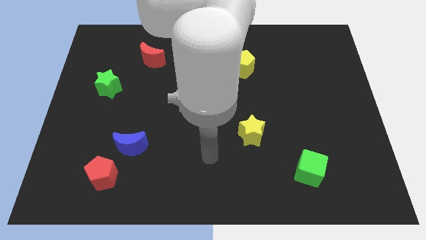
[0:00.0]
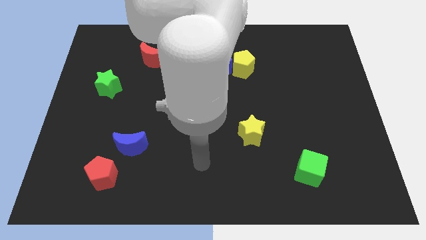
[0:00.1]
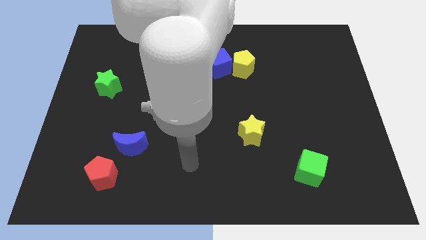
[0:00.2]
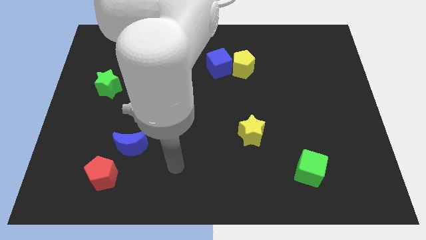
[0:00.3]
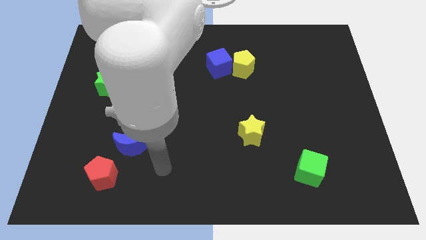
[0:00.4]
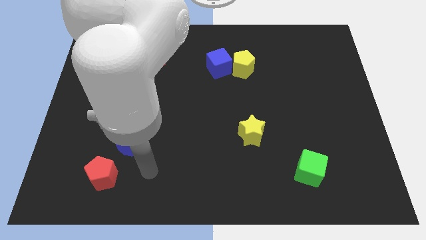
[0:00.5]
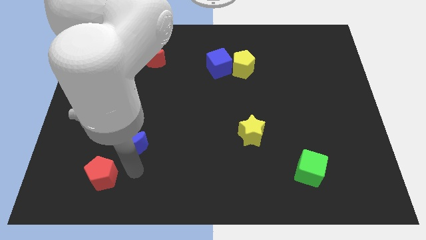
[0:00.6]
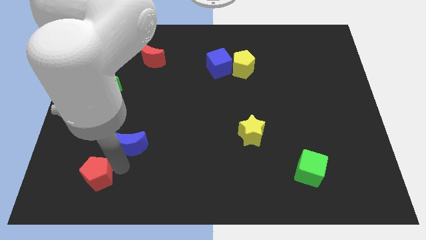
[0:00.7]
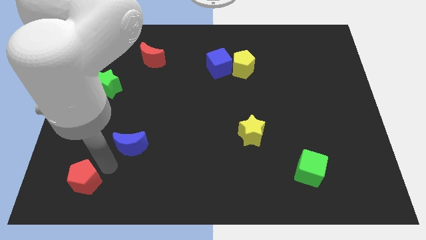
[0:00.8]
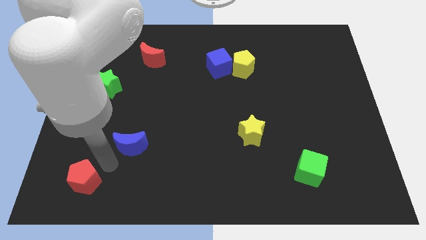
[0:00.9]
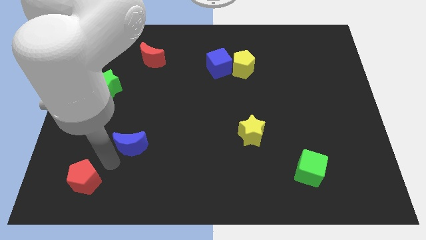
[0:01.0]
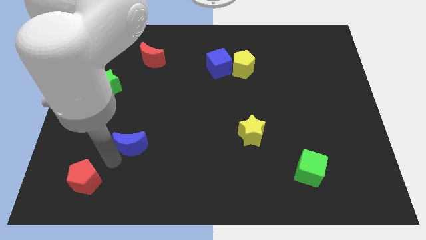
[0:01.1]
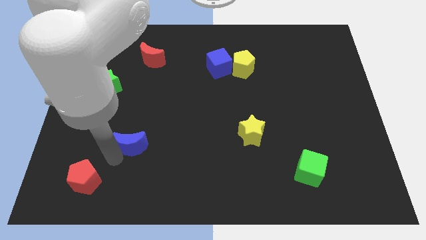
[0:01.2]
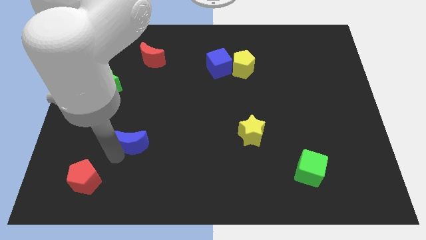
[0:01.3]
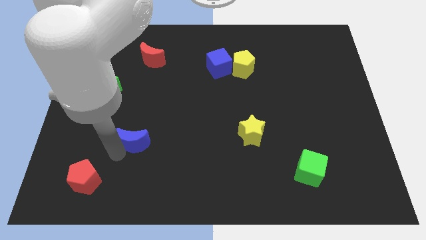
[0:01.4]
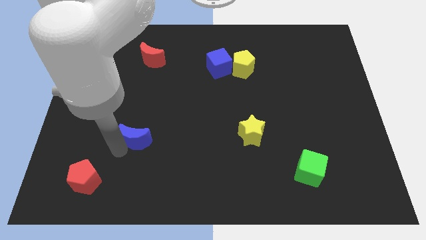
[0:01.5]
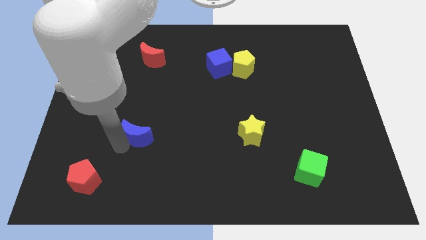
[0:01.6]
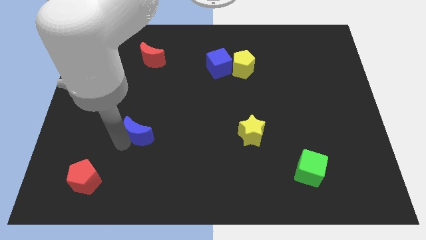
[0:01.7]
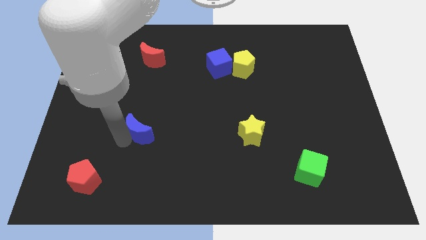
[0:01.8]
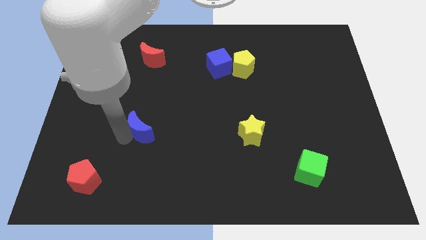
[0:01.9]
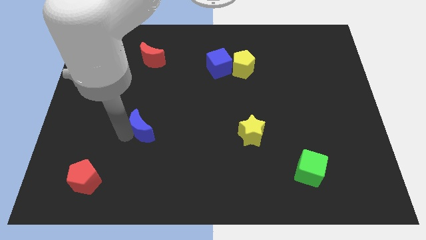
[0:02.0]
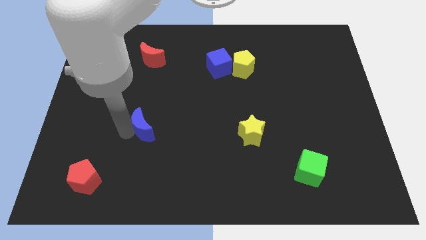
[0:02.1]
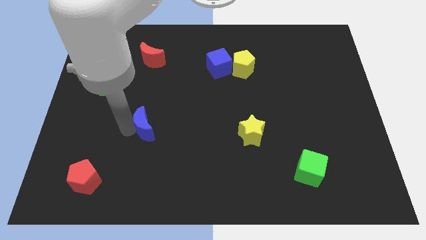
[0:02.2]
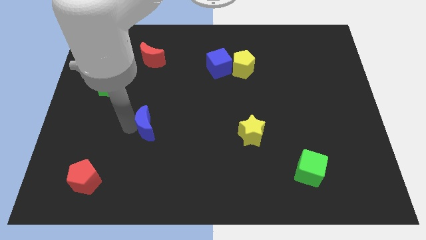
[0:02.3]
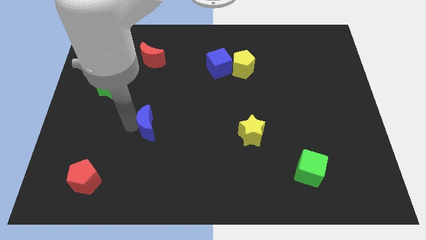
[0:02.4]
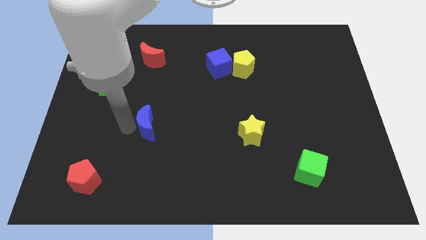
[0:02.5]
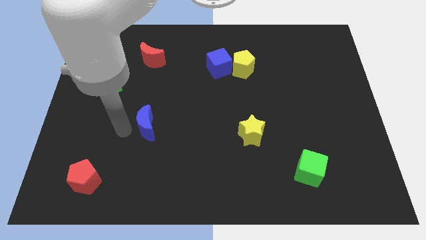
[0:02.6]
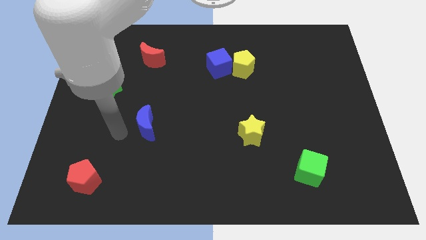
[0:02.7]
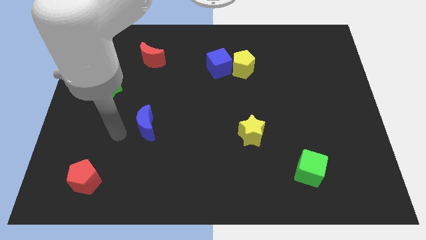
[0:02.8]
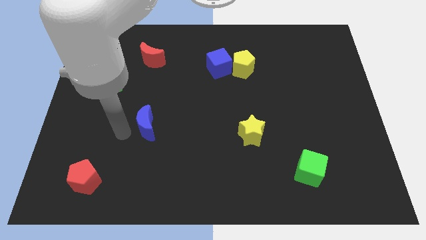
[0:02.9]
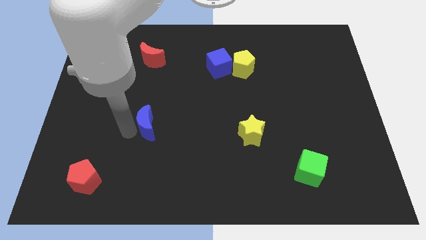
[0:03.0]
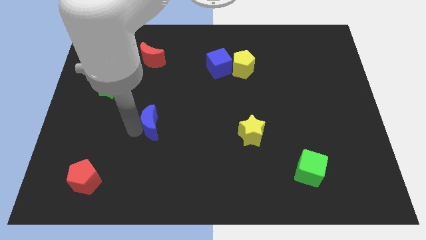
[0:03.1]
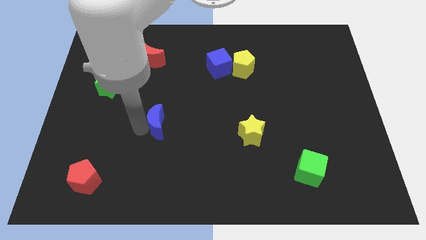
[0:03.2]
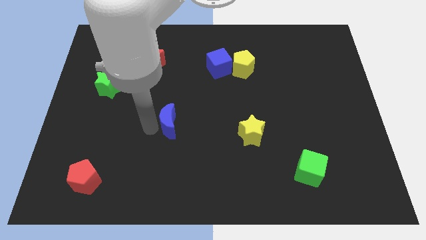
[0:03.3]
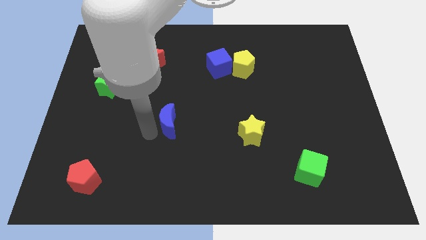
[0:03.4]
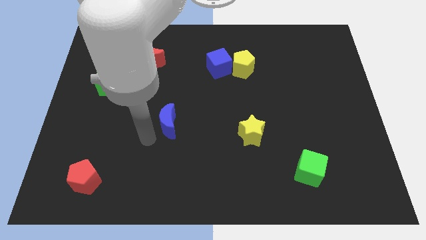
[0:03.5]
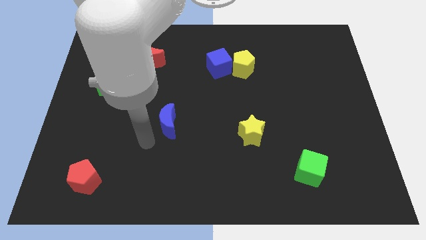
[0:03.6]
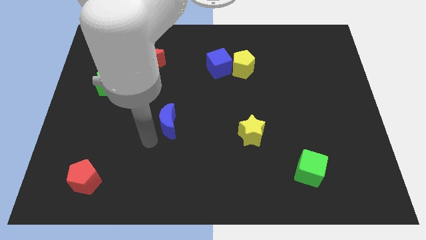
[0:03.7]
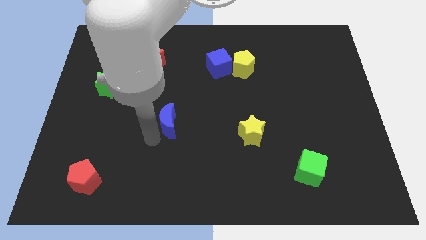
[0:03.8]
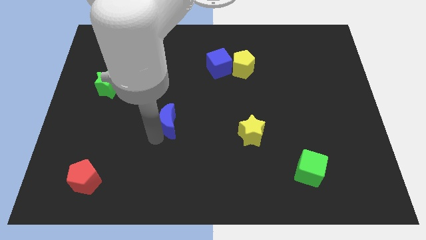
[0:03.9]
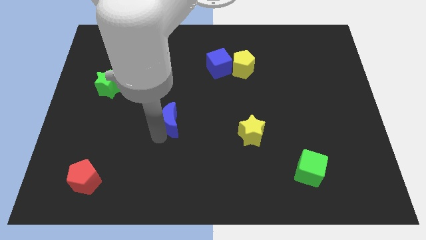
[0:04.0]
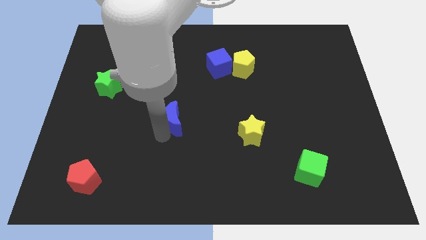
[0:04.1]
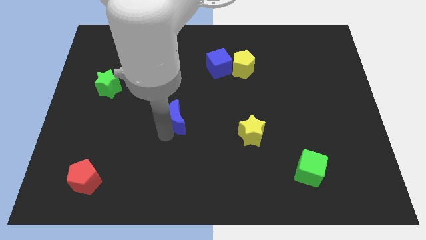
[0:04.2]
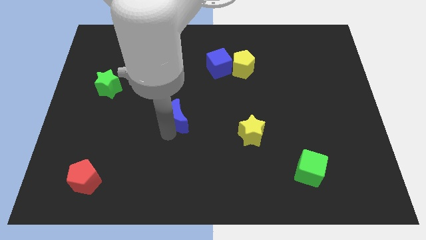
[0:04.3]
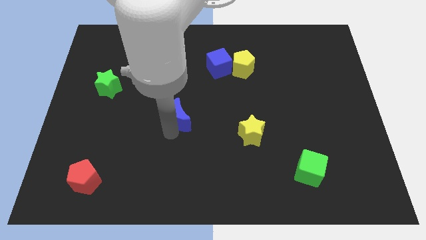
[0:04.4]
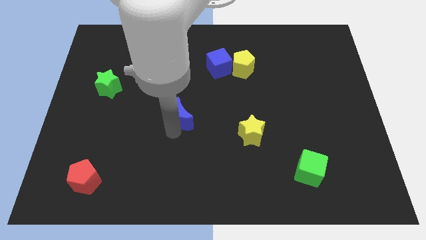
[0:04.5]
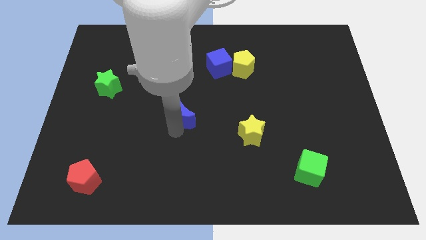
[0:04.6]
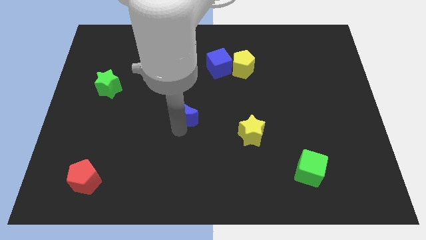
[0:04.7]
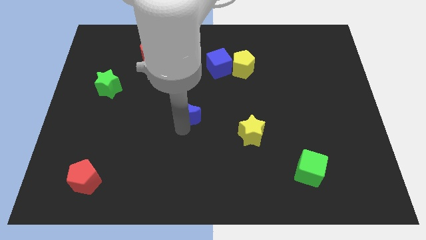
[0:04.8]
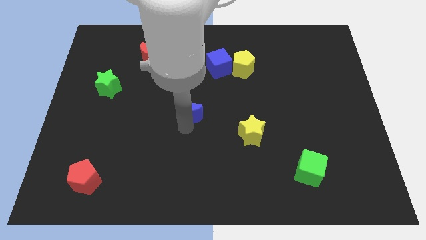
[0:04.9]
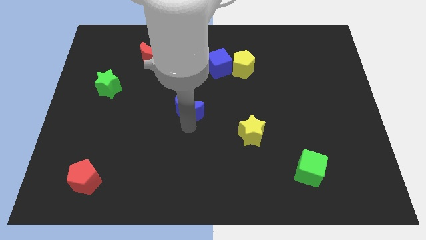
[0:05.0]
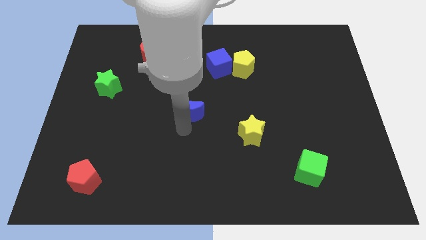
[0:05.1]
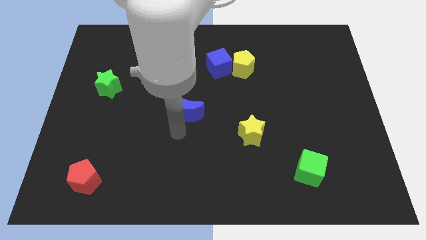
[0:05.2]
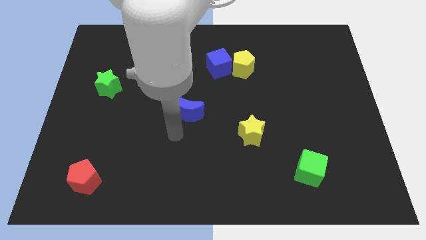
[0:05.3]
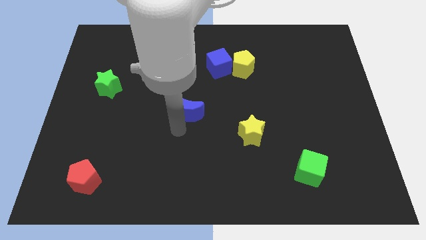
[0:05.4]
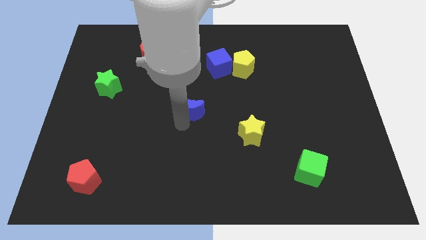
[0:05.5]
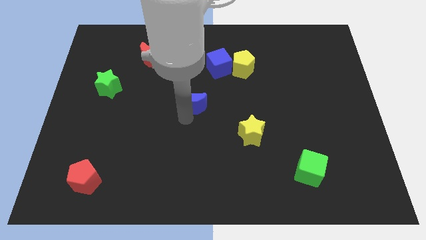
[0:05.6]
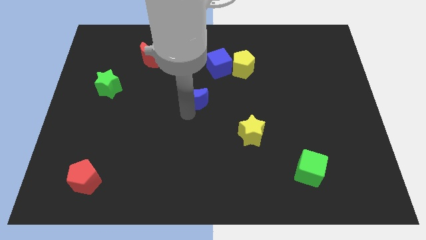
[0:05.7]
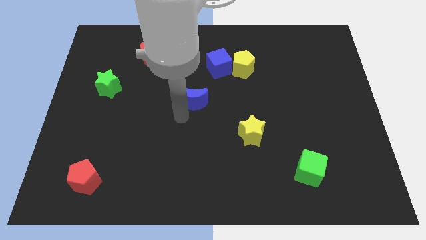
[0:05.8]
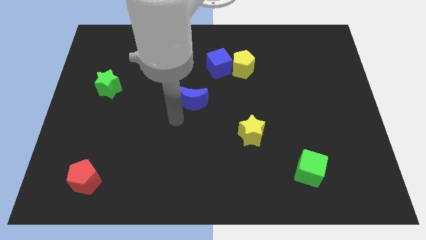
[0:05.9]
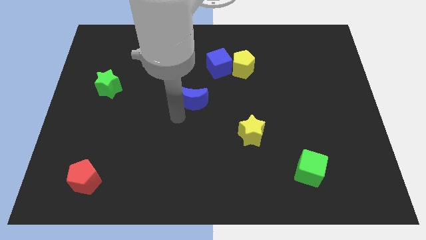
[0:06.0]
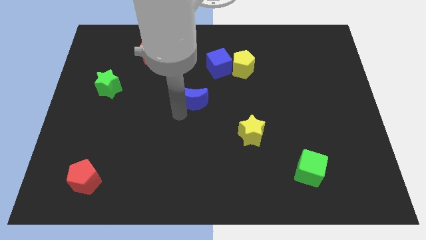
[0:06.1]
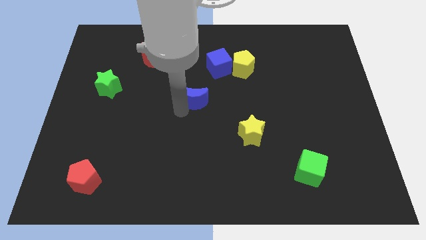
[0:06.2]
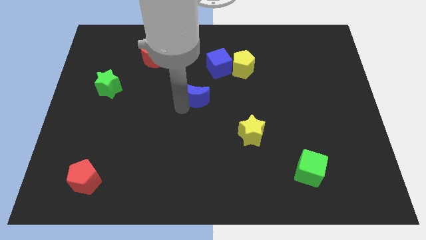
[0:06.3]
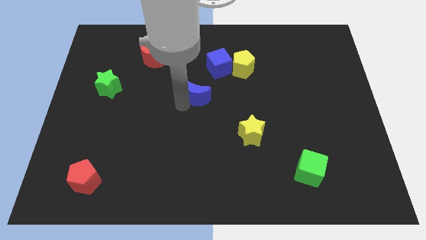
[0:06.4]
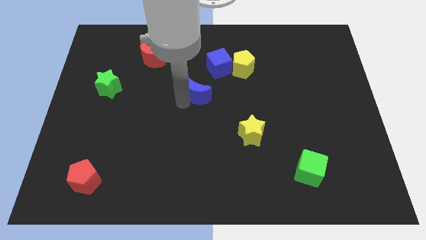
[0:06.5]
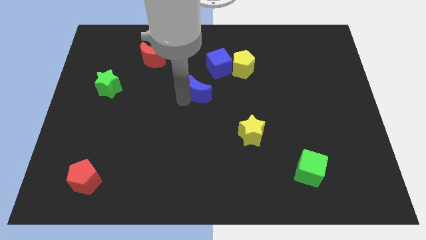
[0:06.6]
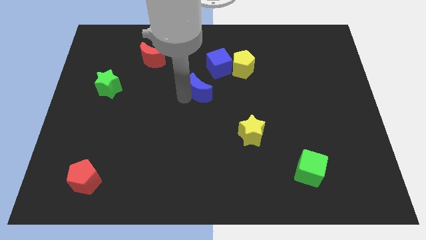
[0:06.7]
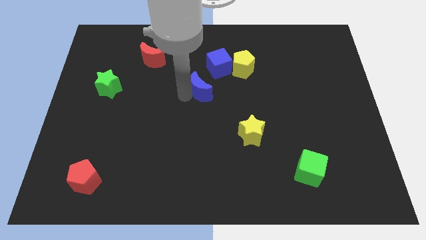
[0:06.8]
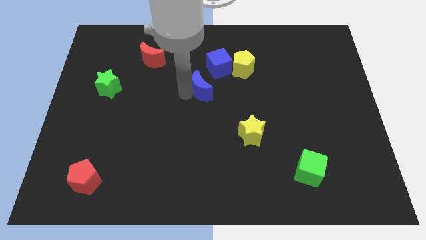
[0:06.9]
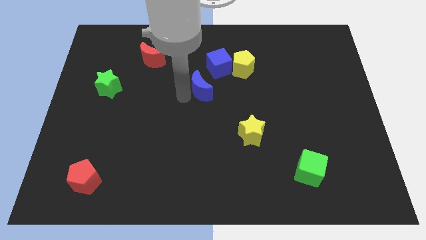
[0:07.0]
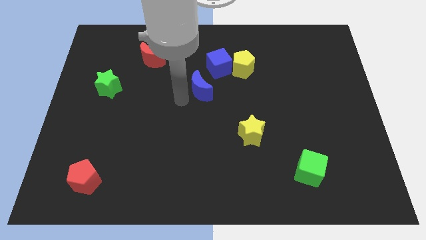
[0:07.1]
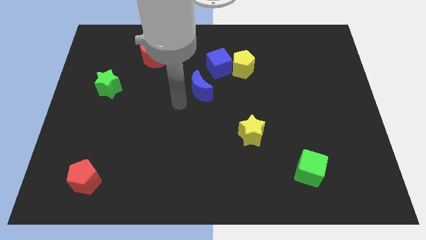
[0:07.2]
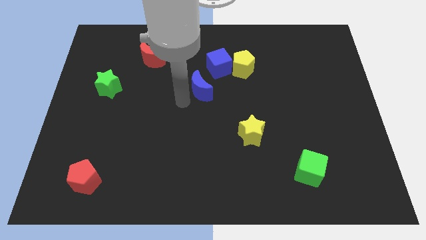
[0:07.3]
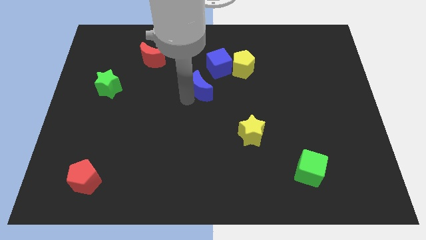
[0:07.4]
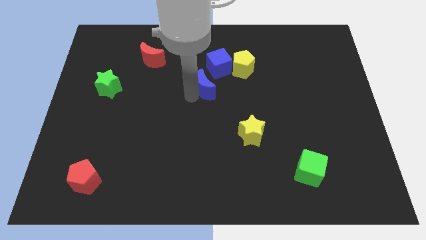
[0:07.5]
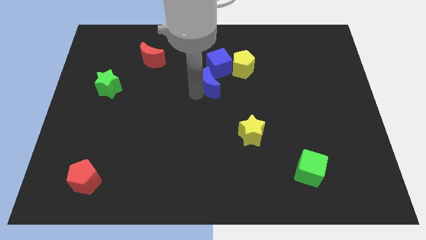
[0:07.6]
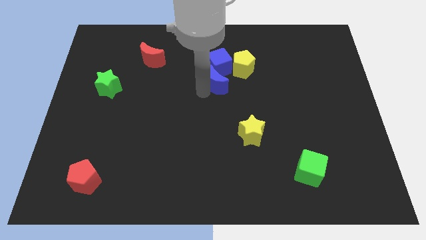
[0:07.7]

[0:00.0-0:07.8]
slide the blue moon close to the blue cube
